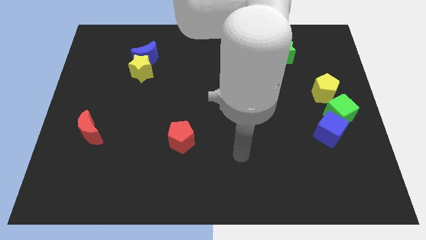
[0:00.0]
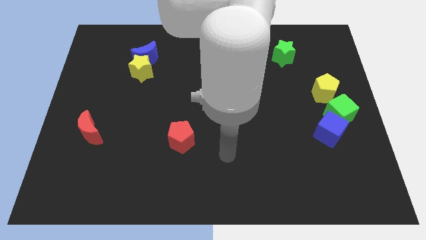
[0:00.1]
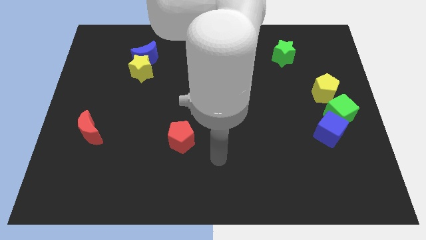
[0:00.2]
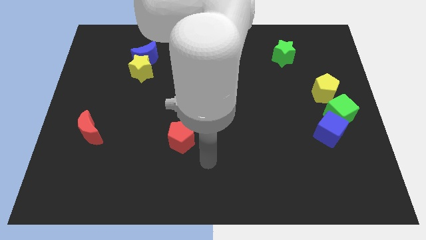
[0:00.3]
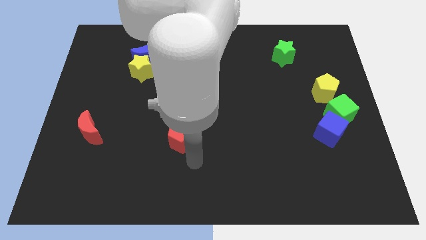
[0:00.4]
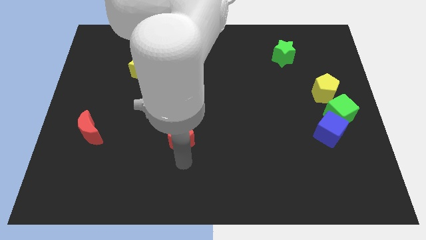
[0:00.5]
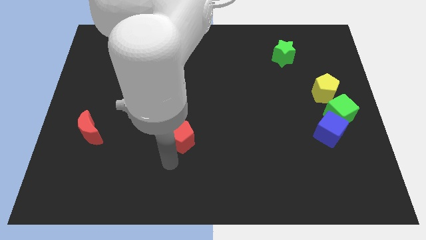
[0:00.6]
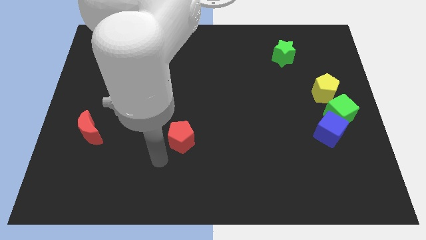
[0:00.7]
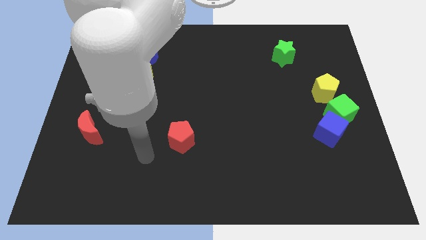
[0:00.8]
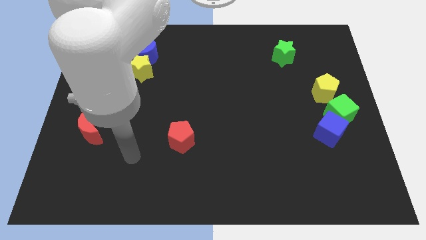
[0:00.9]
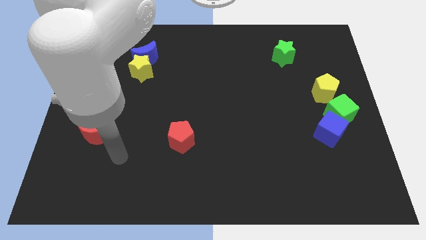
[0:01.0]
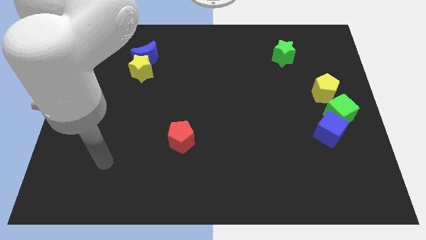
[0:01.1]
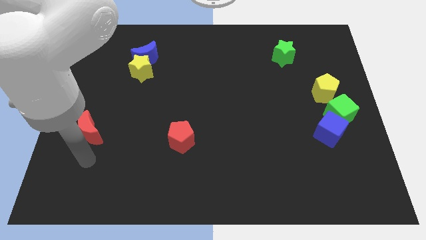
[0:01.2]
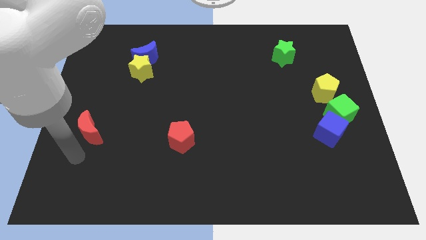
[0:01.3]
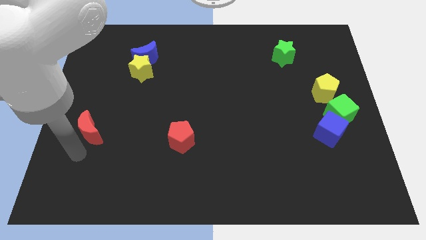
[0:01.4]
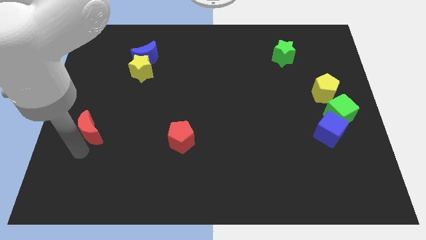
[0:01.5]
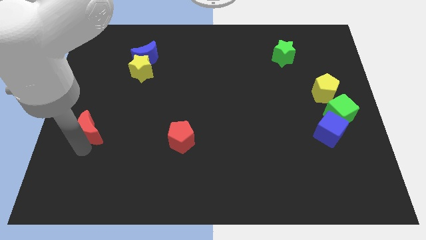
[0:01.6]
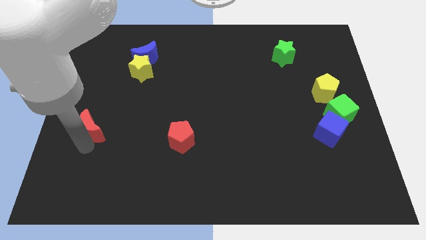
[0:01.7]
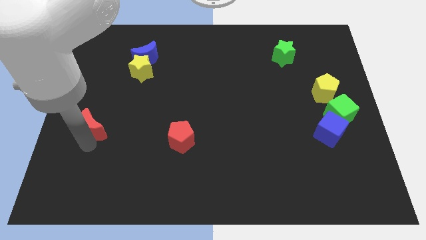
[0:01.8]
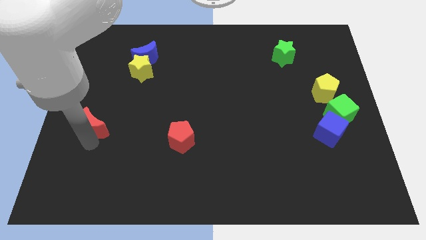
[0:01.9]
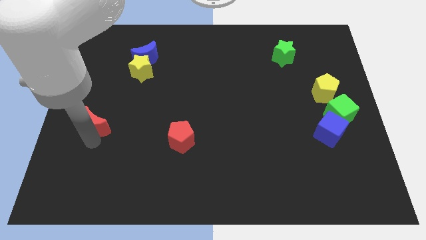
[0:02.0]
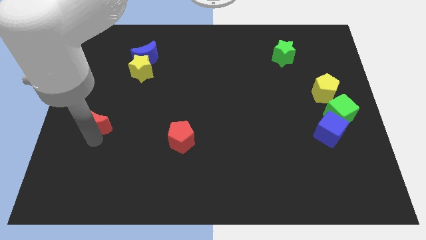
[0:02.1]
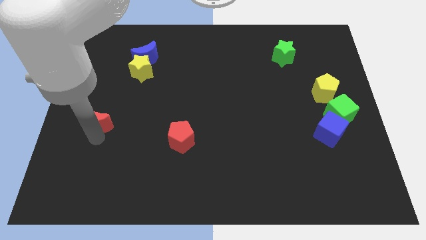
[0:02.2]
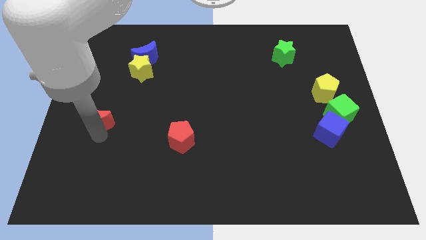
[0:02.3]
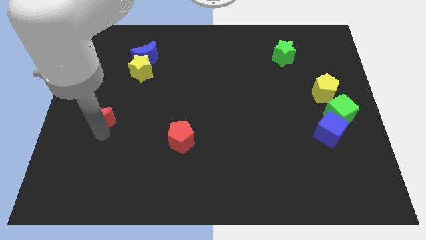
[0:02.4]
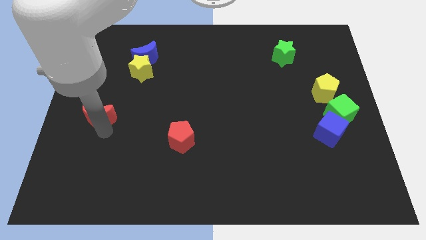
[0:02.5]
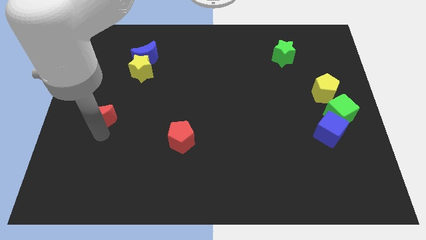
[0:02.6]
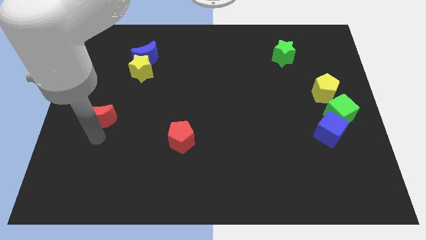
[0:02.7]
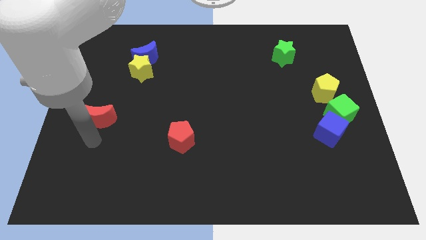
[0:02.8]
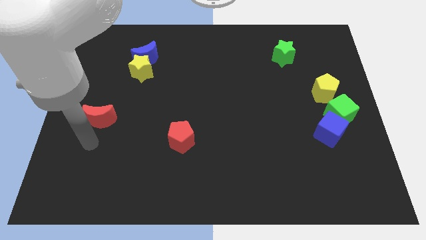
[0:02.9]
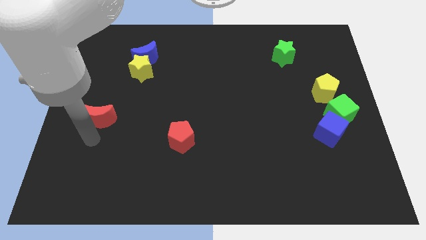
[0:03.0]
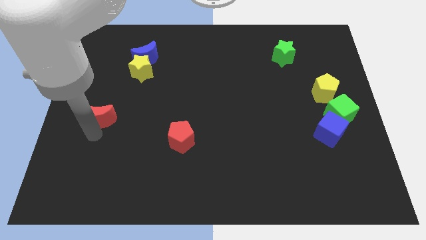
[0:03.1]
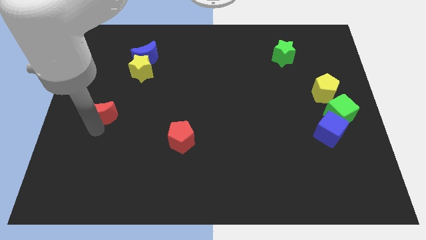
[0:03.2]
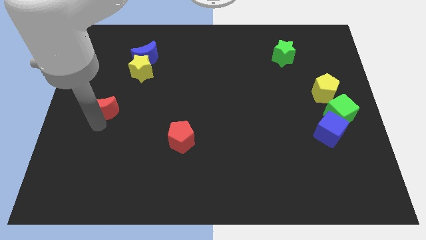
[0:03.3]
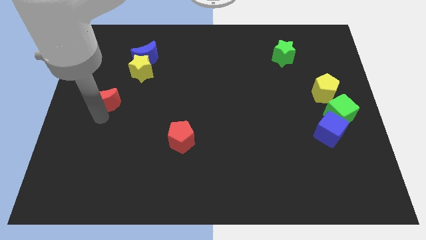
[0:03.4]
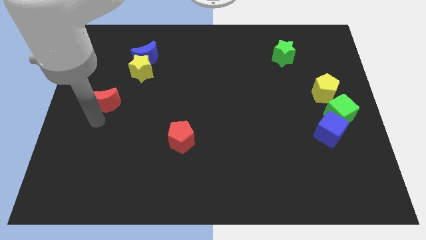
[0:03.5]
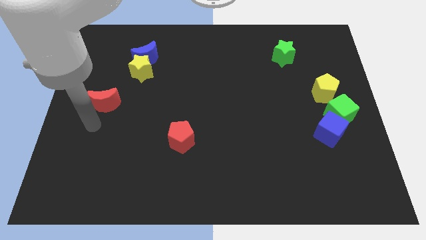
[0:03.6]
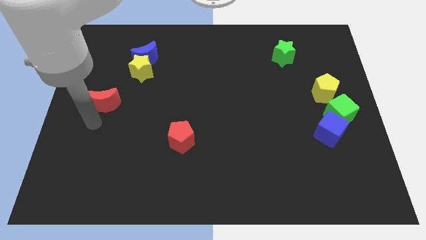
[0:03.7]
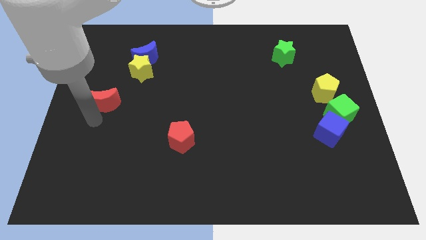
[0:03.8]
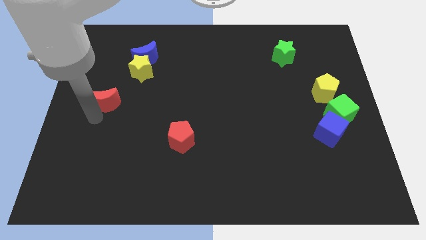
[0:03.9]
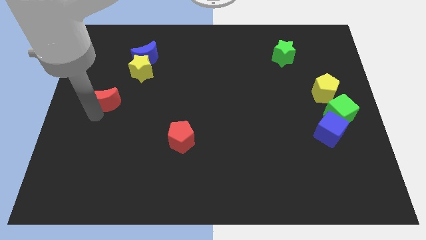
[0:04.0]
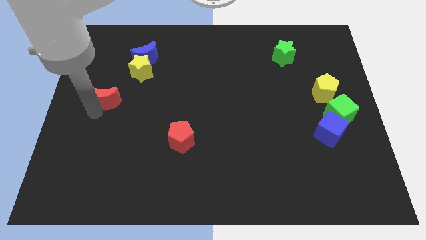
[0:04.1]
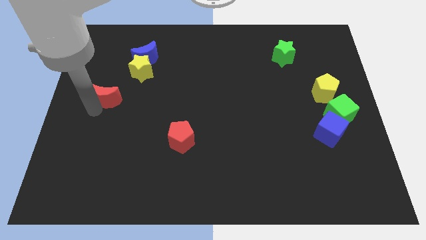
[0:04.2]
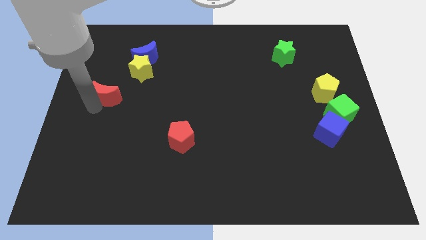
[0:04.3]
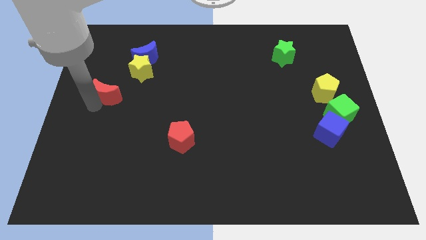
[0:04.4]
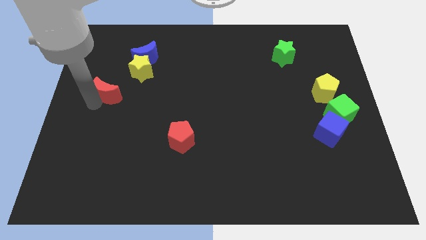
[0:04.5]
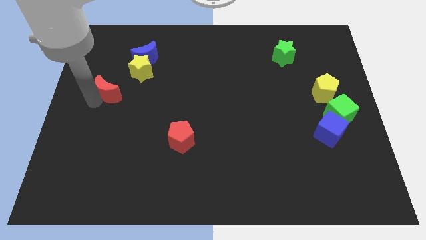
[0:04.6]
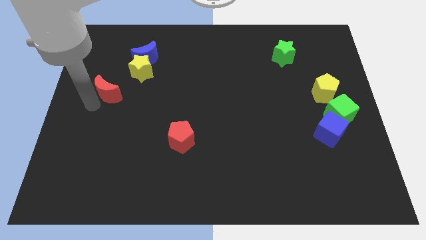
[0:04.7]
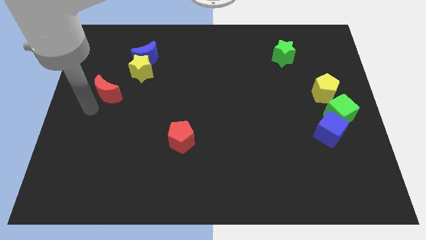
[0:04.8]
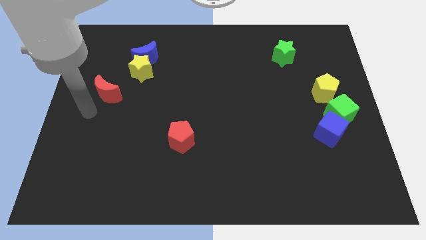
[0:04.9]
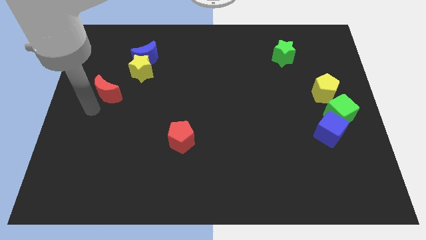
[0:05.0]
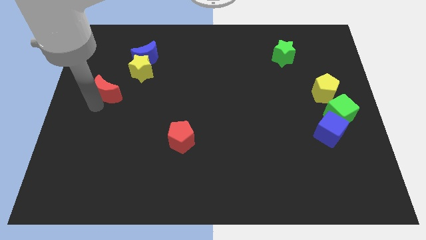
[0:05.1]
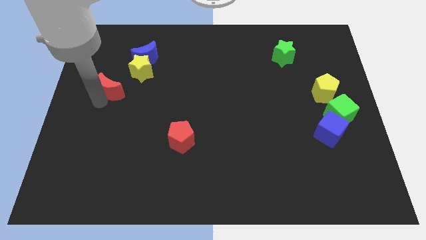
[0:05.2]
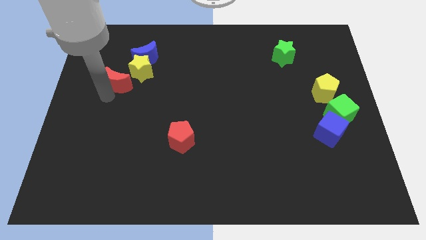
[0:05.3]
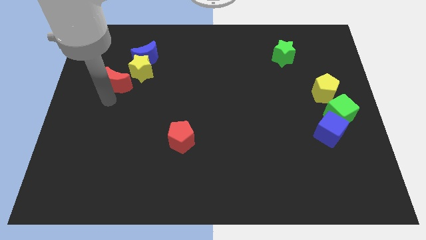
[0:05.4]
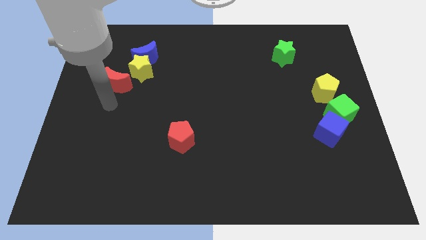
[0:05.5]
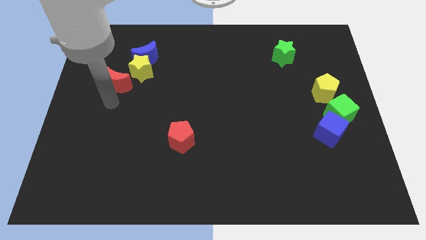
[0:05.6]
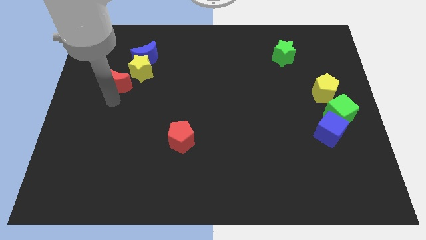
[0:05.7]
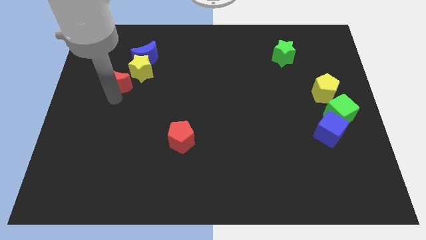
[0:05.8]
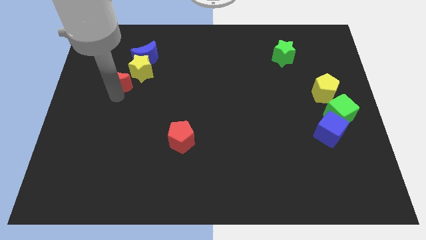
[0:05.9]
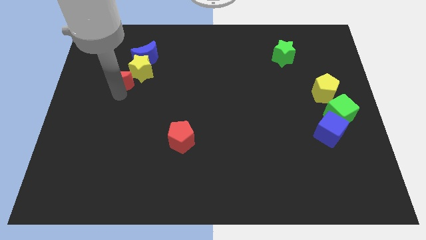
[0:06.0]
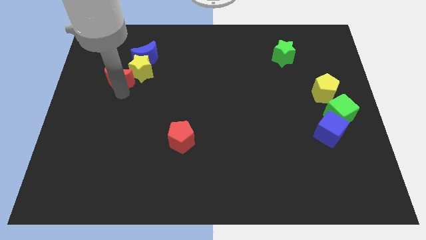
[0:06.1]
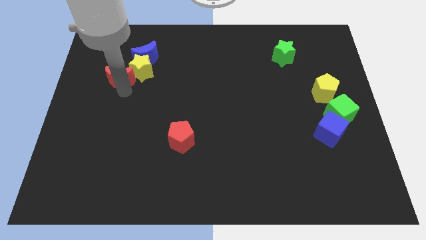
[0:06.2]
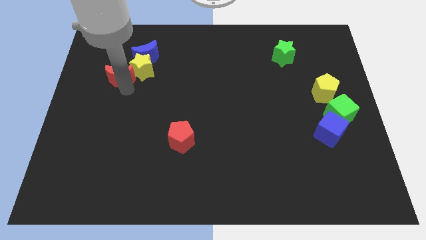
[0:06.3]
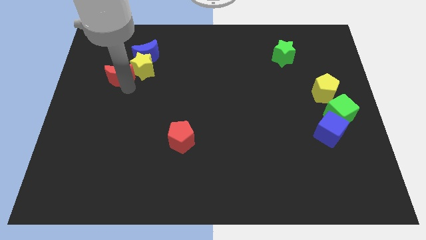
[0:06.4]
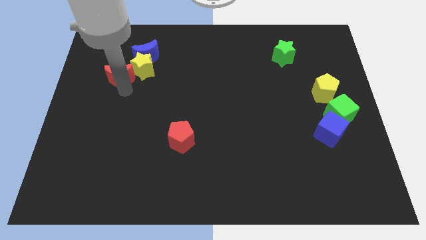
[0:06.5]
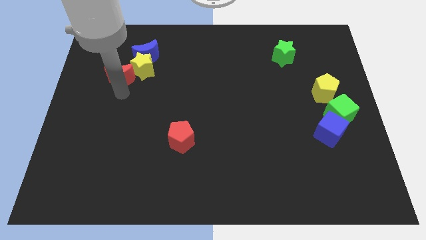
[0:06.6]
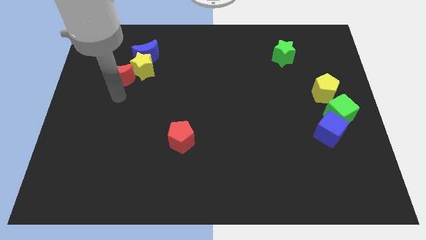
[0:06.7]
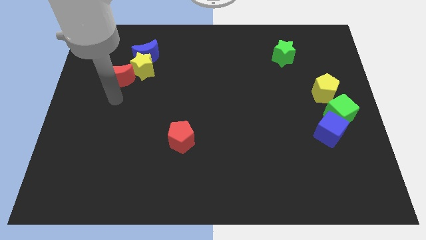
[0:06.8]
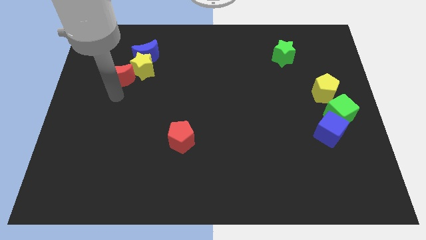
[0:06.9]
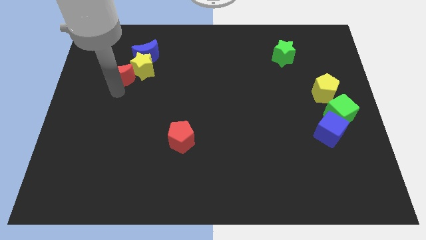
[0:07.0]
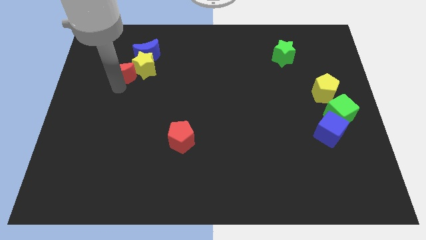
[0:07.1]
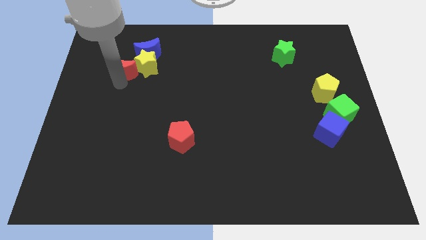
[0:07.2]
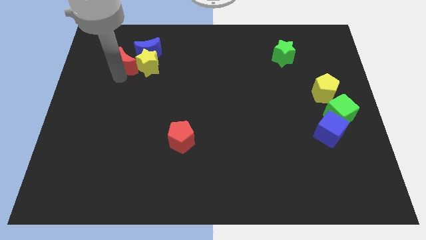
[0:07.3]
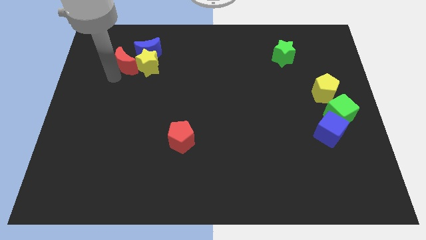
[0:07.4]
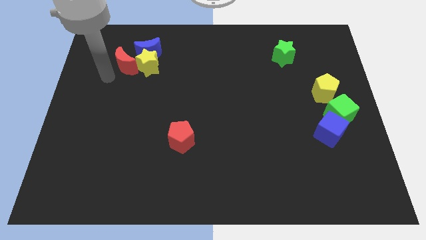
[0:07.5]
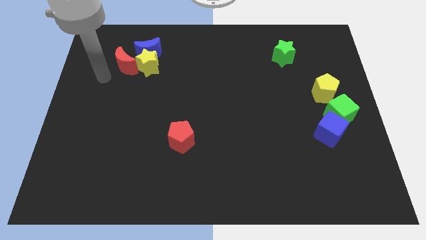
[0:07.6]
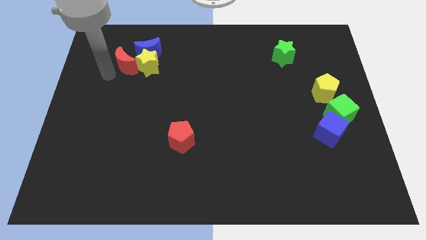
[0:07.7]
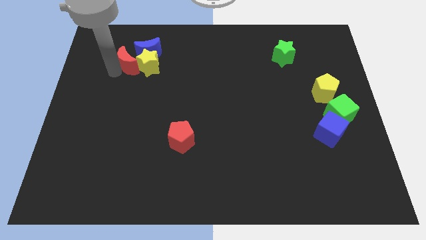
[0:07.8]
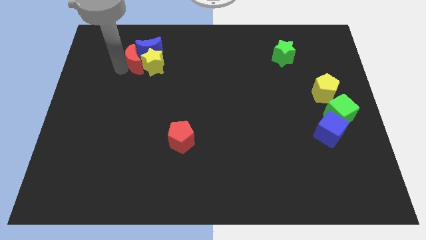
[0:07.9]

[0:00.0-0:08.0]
slide the red moon towards the blue moon
